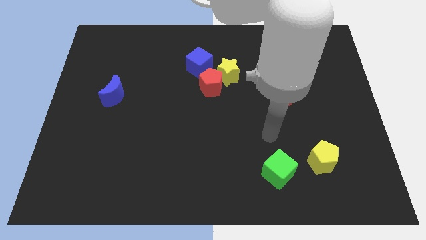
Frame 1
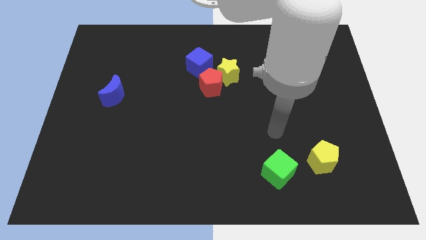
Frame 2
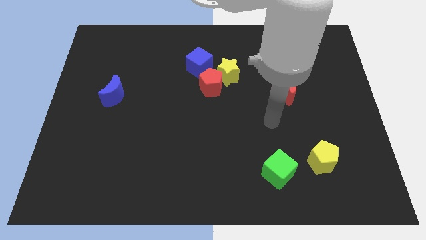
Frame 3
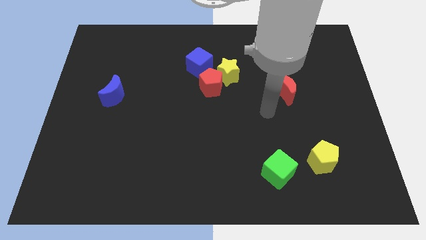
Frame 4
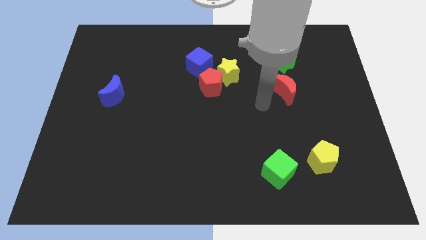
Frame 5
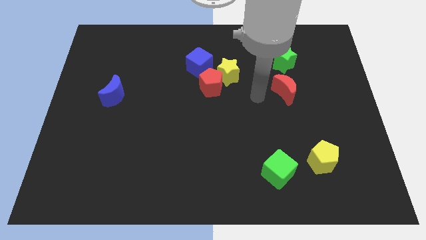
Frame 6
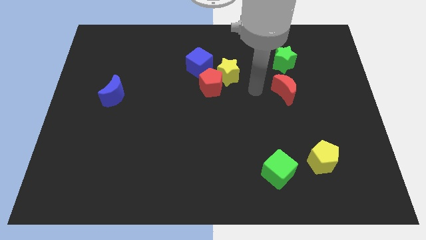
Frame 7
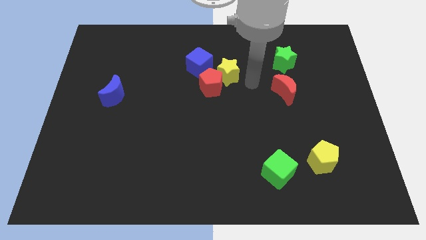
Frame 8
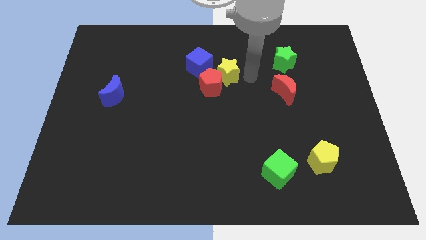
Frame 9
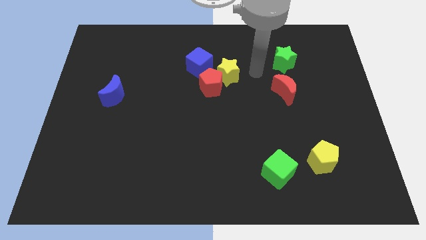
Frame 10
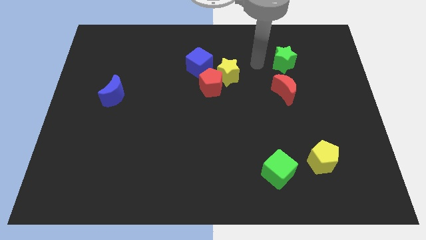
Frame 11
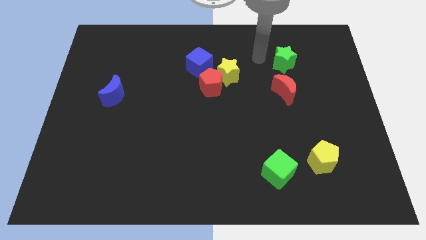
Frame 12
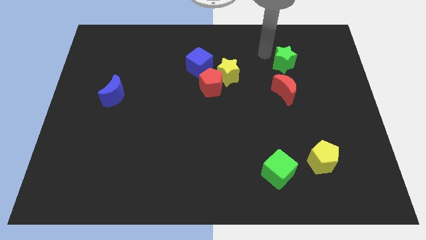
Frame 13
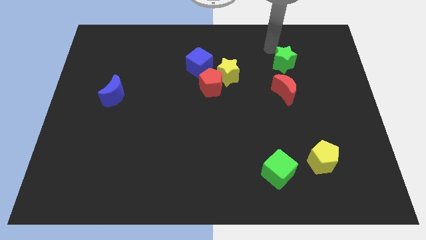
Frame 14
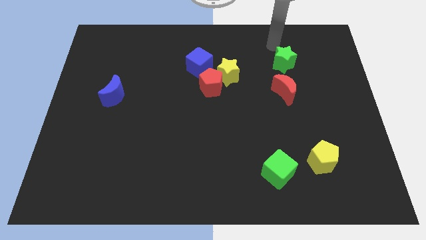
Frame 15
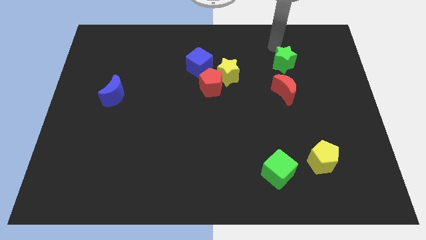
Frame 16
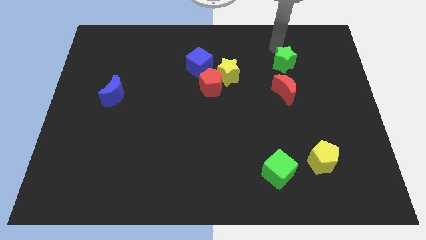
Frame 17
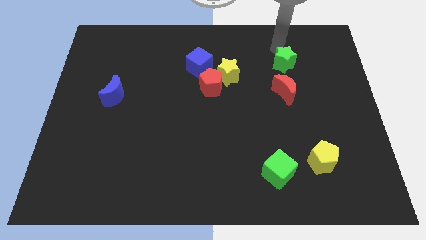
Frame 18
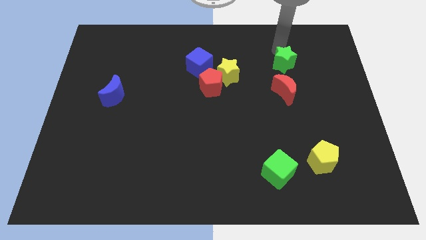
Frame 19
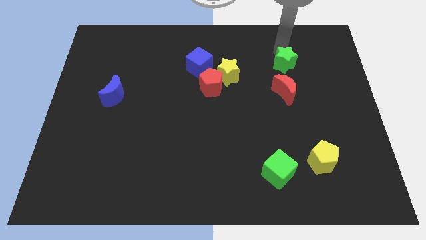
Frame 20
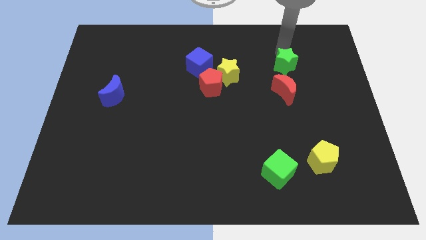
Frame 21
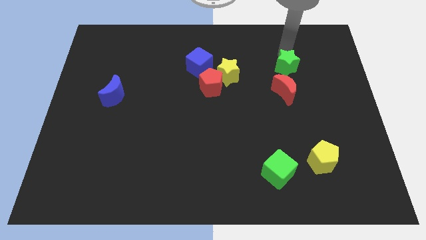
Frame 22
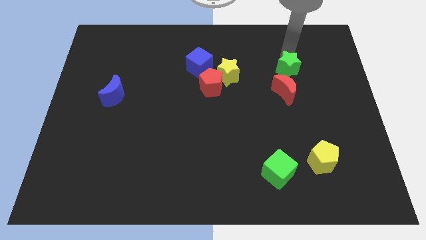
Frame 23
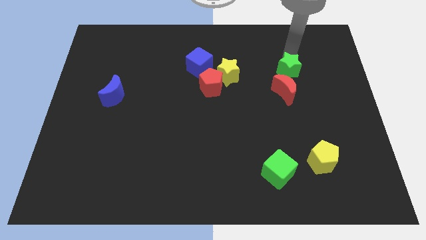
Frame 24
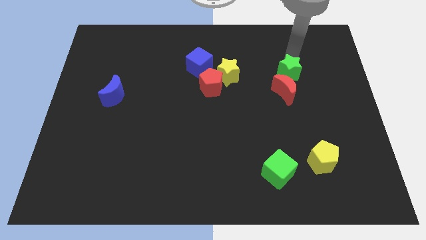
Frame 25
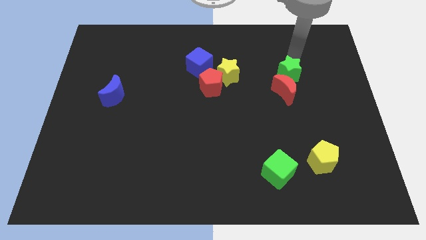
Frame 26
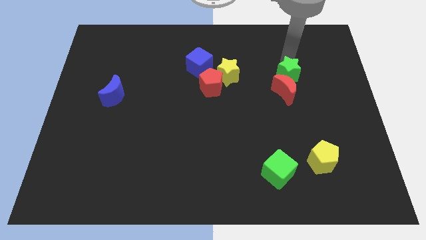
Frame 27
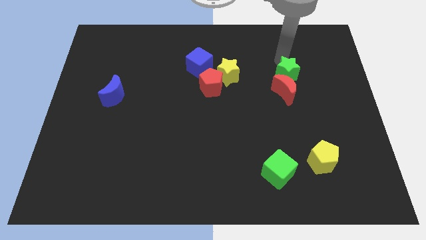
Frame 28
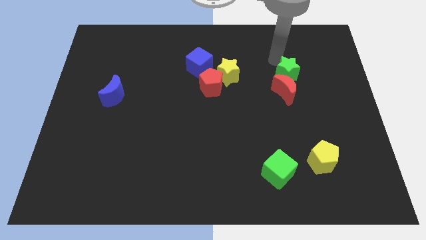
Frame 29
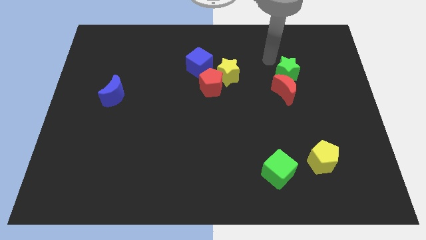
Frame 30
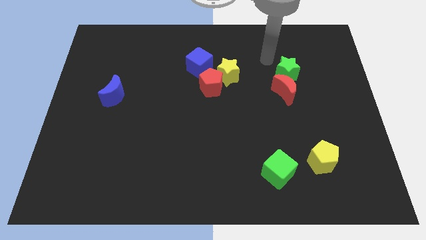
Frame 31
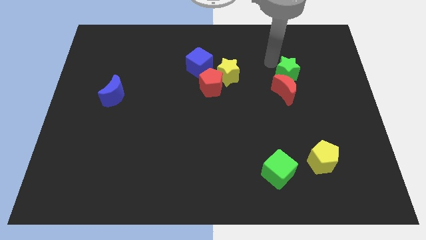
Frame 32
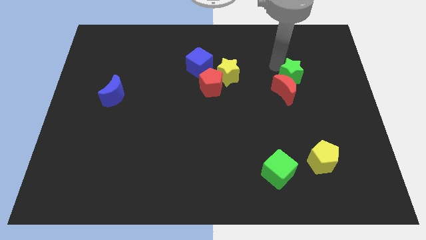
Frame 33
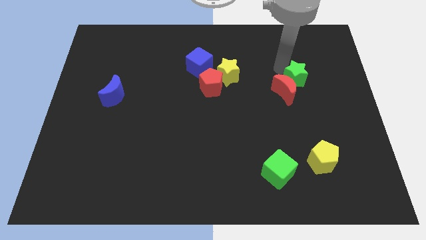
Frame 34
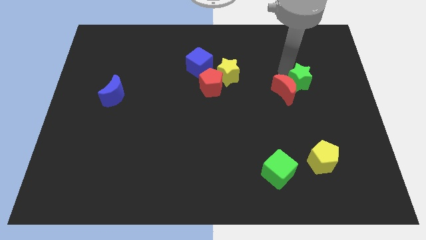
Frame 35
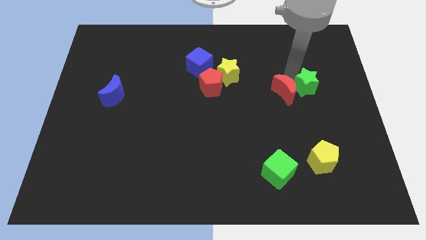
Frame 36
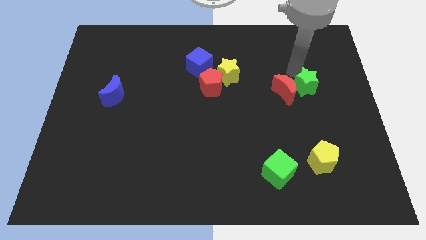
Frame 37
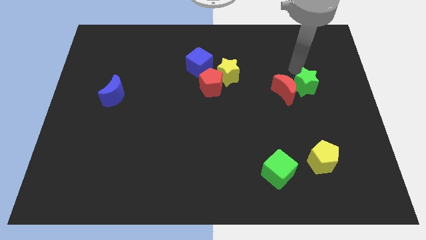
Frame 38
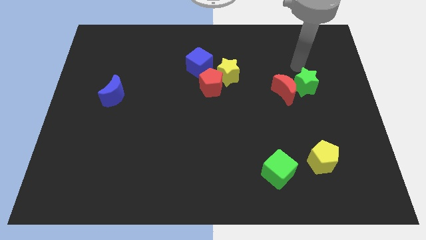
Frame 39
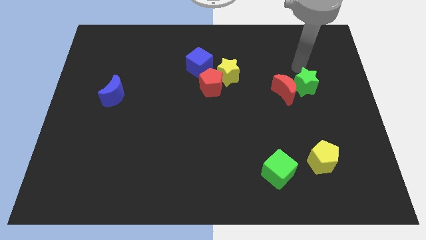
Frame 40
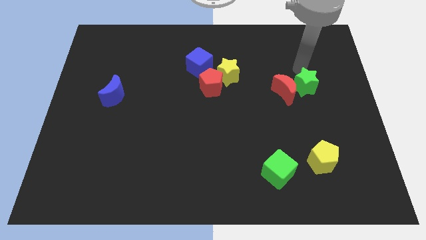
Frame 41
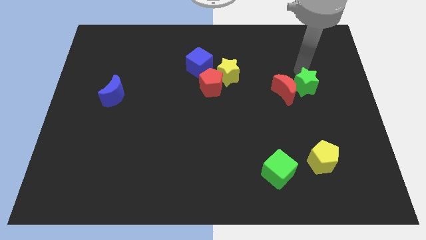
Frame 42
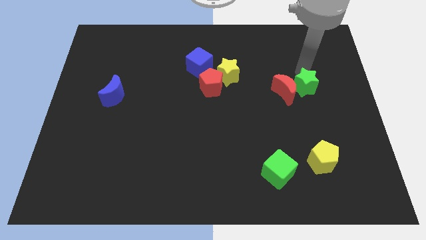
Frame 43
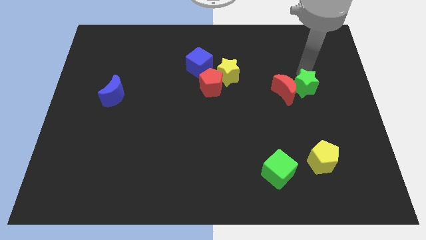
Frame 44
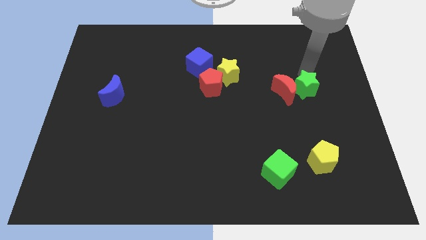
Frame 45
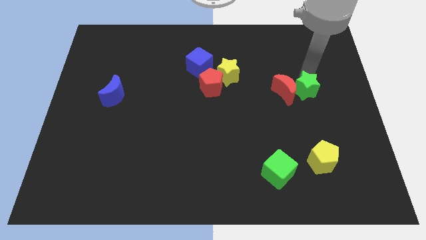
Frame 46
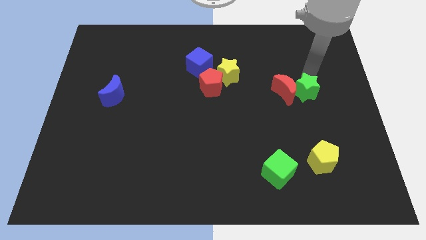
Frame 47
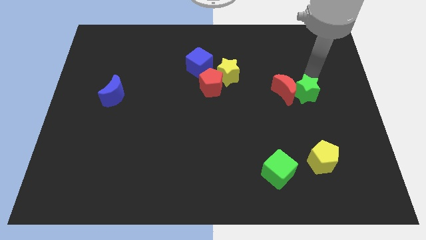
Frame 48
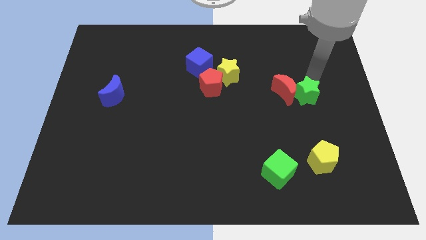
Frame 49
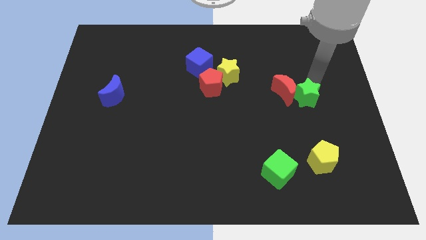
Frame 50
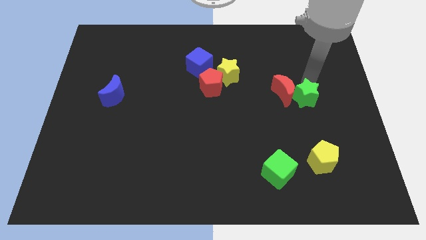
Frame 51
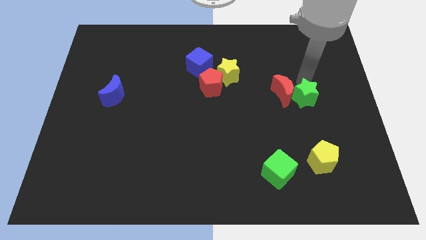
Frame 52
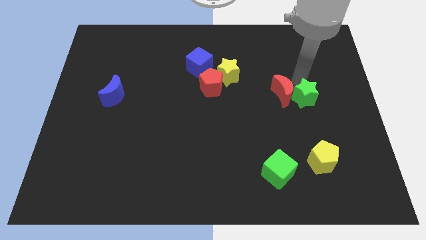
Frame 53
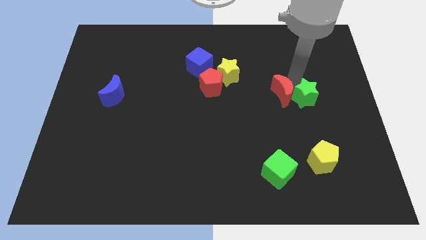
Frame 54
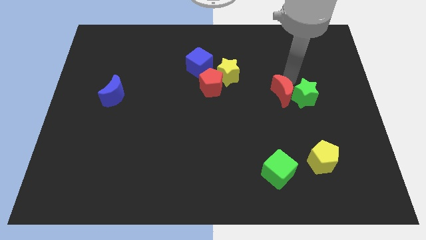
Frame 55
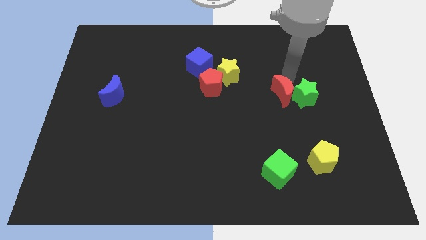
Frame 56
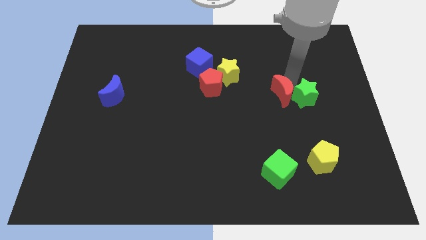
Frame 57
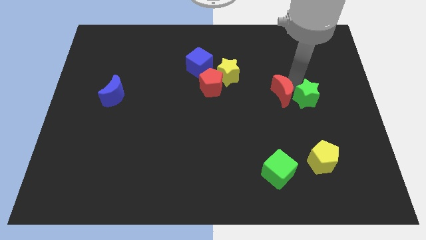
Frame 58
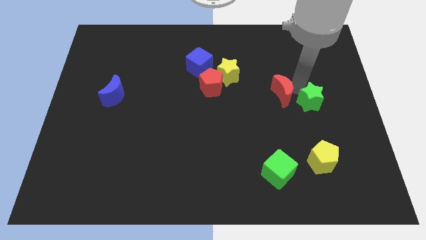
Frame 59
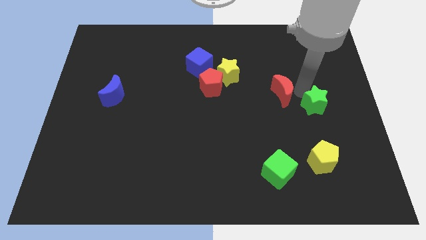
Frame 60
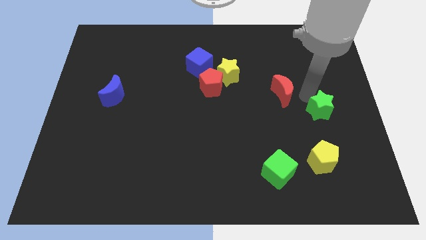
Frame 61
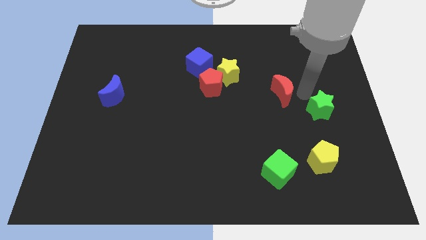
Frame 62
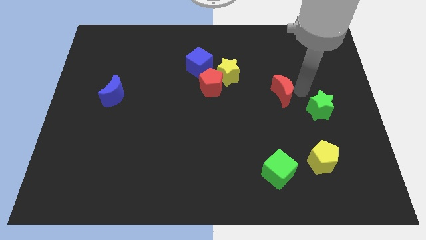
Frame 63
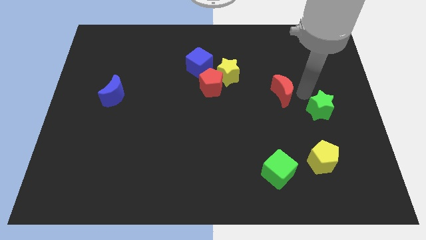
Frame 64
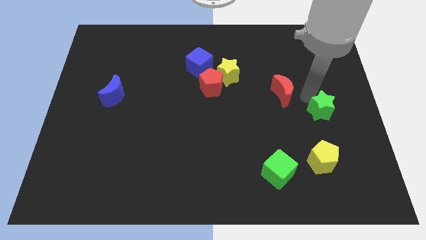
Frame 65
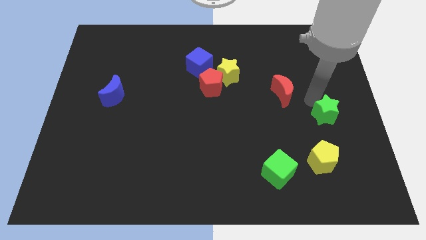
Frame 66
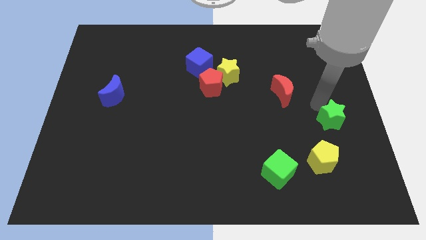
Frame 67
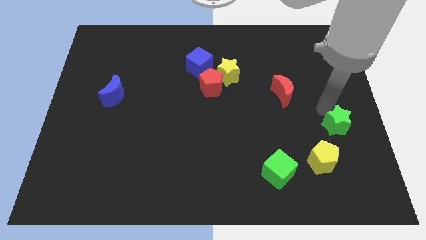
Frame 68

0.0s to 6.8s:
put the green star to the top right side of the yellow pentagon
